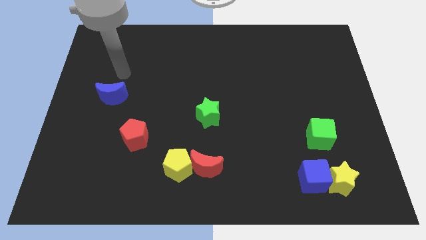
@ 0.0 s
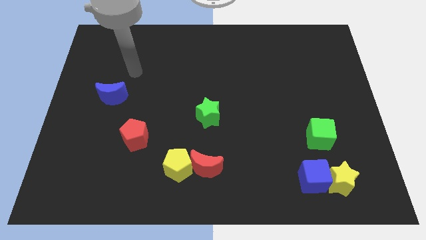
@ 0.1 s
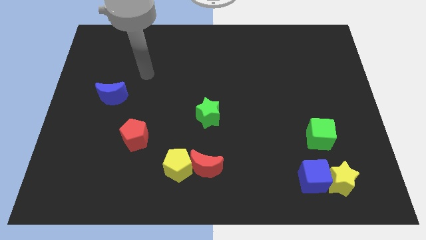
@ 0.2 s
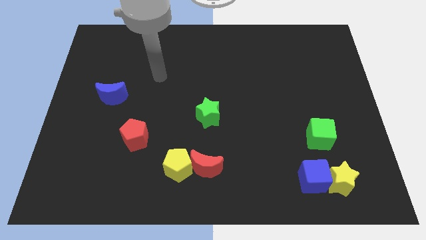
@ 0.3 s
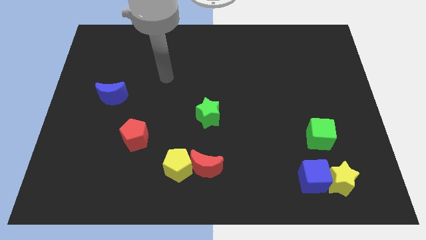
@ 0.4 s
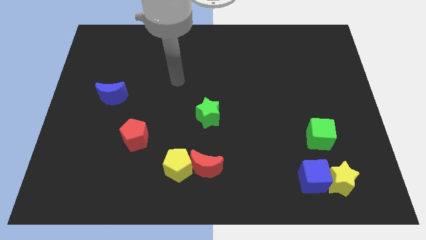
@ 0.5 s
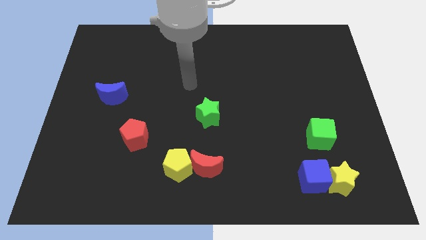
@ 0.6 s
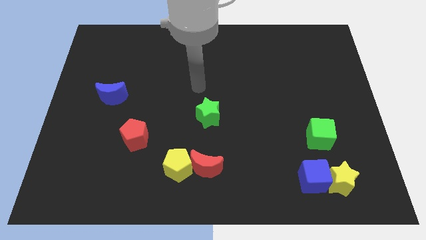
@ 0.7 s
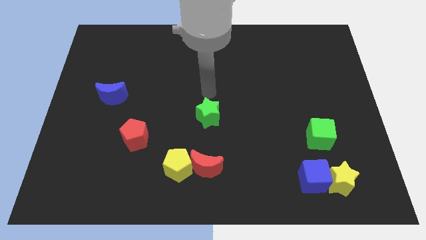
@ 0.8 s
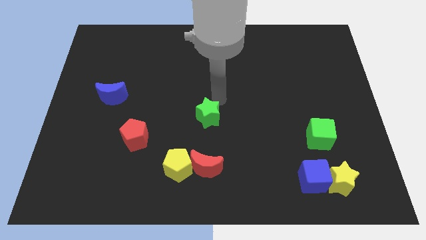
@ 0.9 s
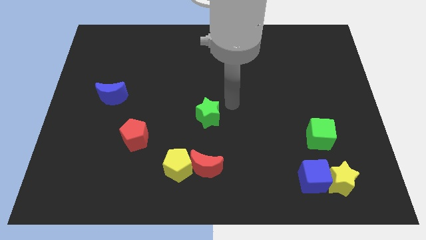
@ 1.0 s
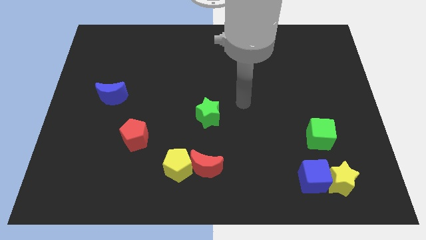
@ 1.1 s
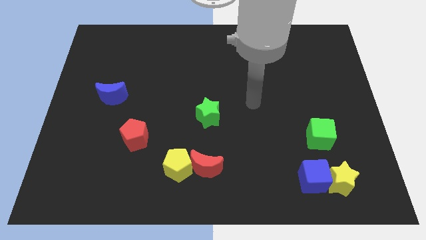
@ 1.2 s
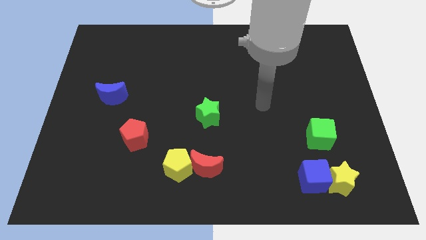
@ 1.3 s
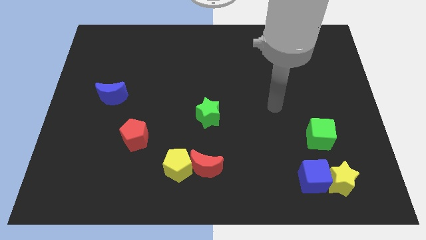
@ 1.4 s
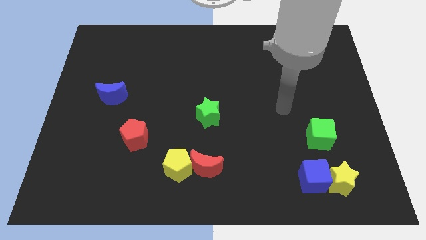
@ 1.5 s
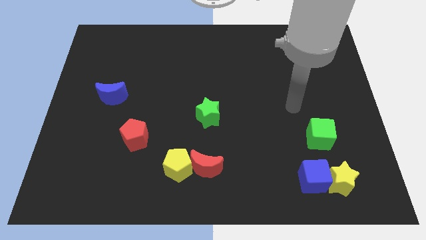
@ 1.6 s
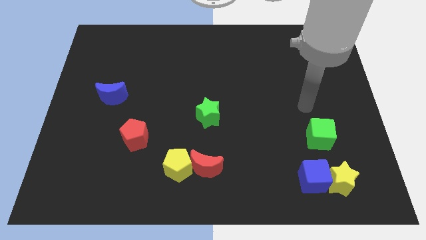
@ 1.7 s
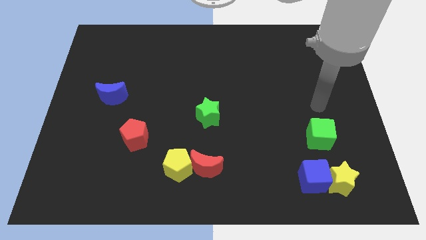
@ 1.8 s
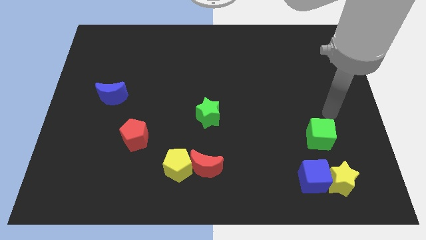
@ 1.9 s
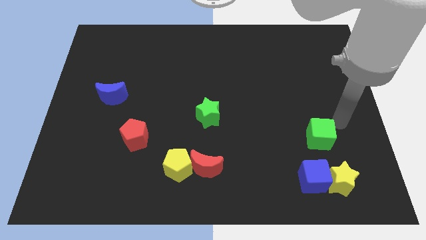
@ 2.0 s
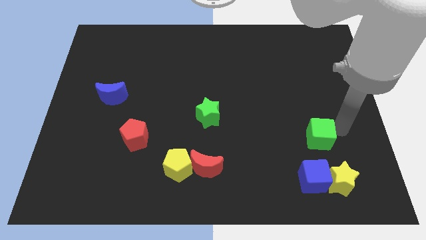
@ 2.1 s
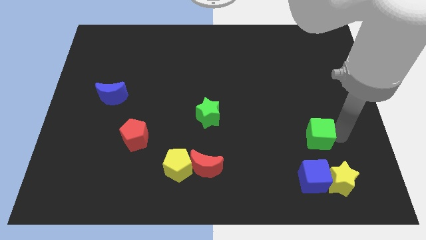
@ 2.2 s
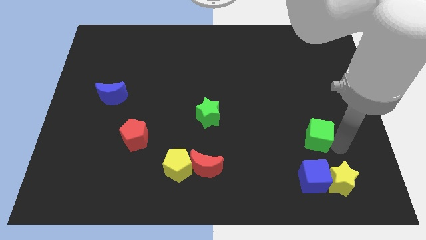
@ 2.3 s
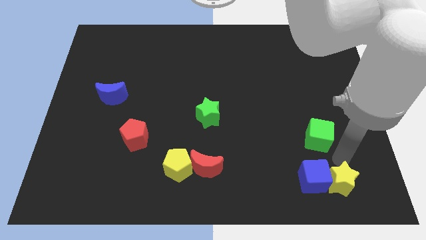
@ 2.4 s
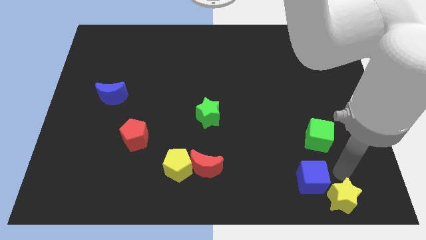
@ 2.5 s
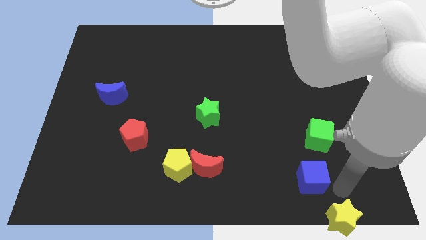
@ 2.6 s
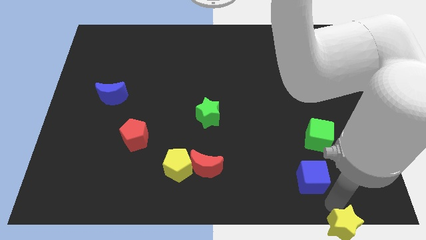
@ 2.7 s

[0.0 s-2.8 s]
separate the blue cube from the yellow star

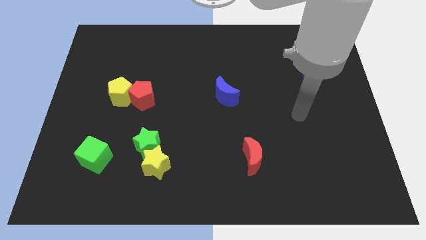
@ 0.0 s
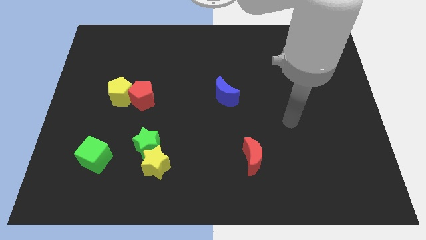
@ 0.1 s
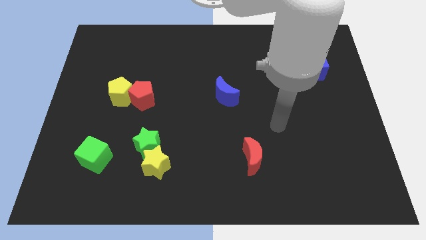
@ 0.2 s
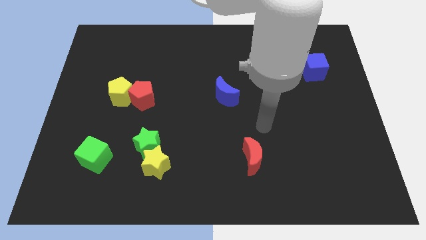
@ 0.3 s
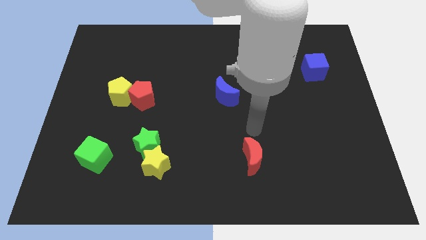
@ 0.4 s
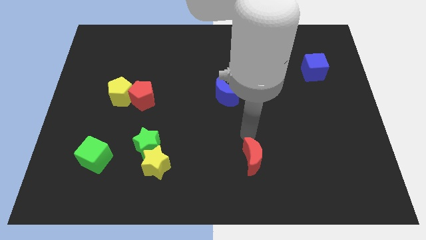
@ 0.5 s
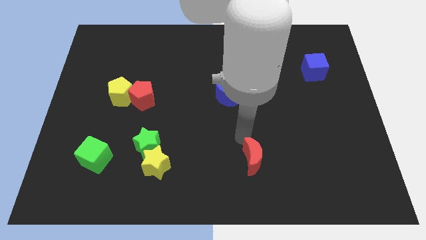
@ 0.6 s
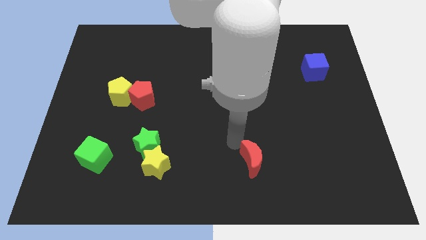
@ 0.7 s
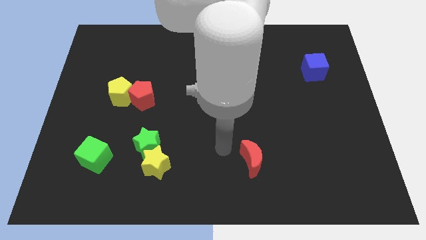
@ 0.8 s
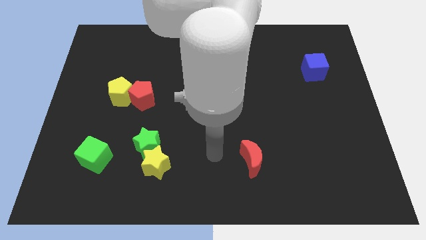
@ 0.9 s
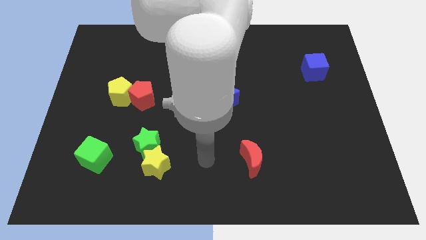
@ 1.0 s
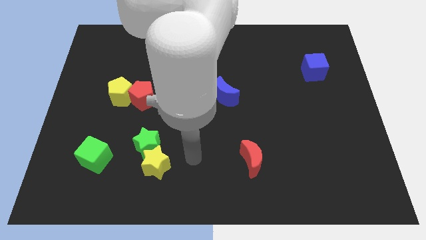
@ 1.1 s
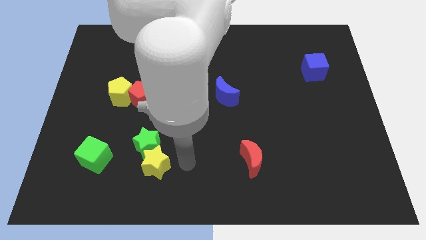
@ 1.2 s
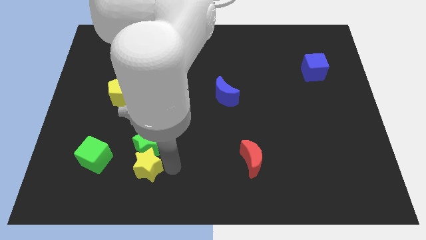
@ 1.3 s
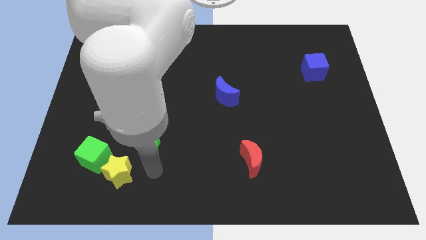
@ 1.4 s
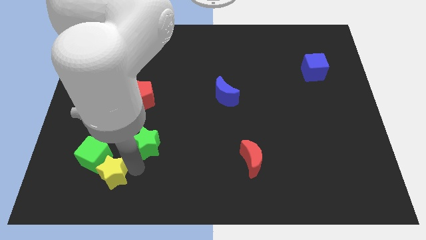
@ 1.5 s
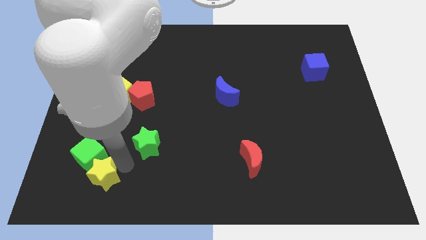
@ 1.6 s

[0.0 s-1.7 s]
move the green star away from the yellow star

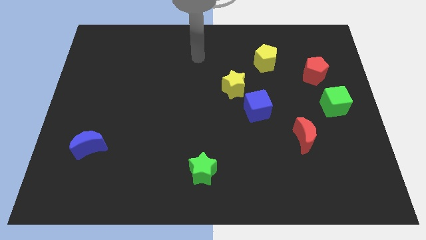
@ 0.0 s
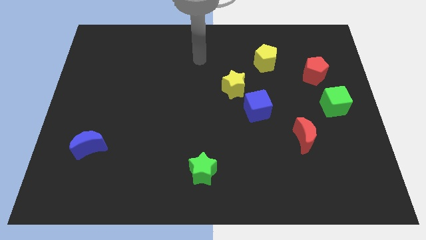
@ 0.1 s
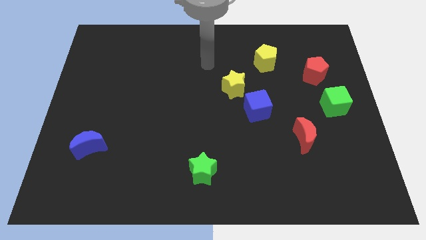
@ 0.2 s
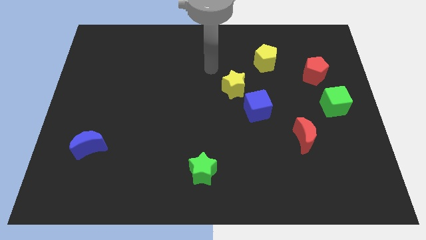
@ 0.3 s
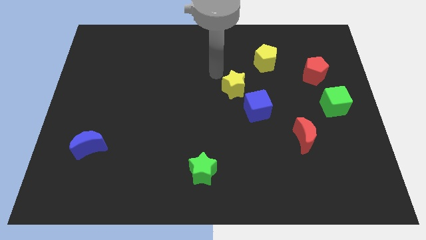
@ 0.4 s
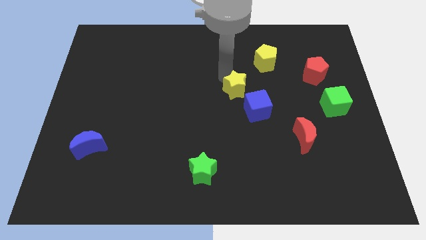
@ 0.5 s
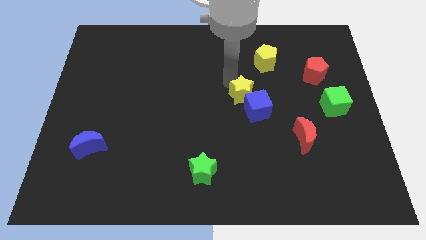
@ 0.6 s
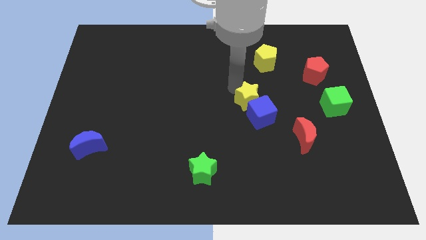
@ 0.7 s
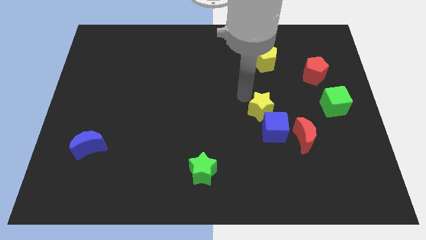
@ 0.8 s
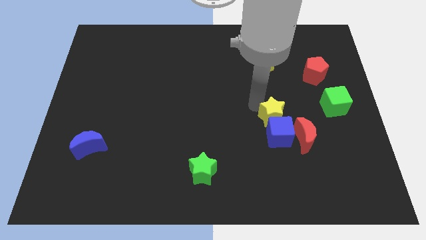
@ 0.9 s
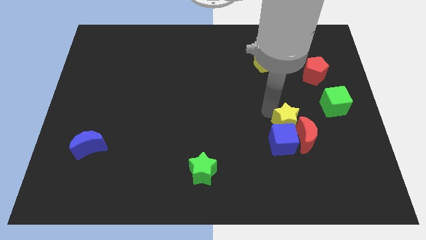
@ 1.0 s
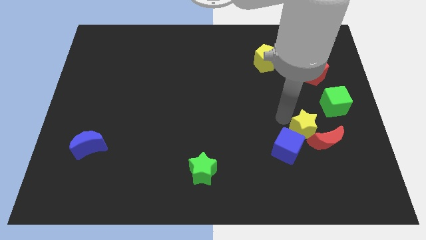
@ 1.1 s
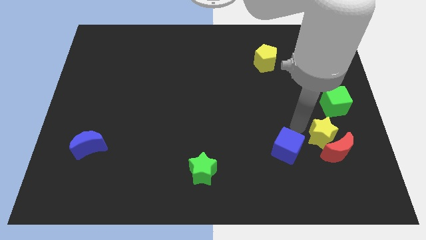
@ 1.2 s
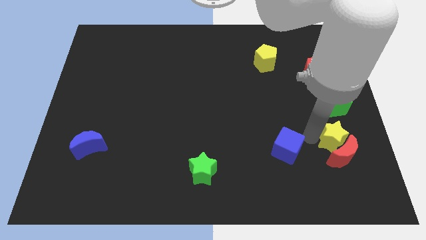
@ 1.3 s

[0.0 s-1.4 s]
move the blue cube away from the yellow star

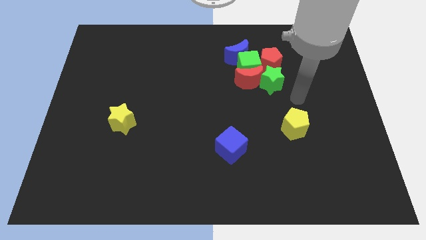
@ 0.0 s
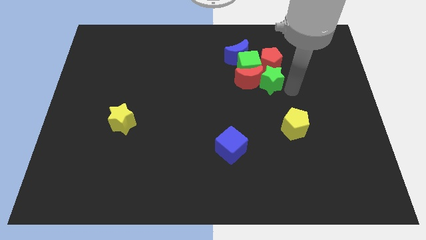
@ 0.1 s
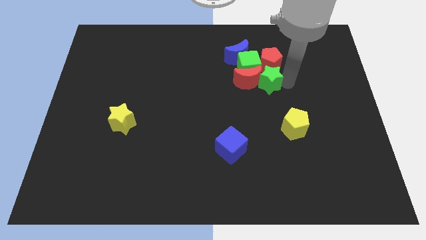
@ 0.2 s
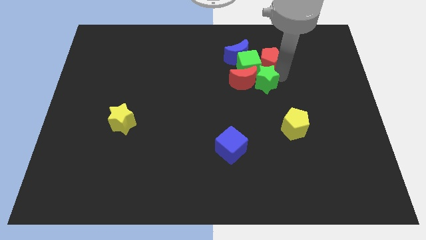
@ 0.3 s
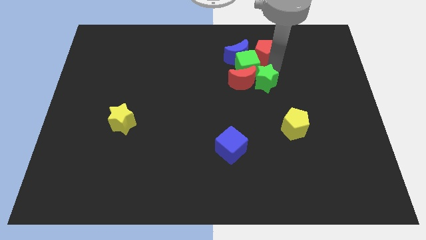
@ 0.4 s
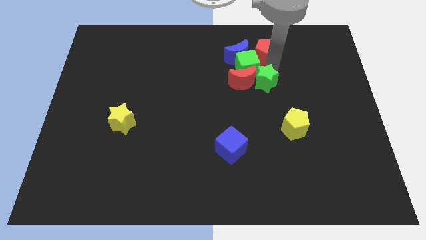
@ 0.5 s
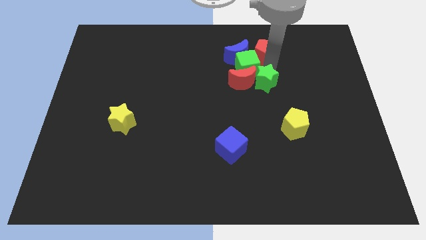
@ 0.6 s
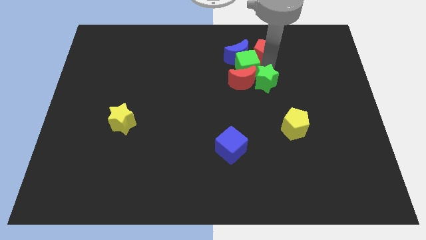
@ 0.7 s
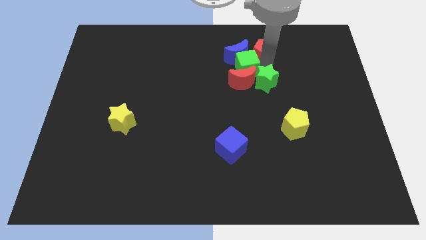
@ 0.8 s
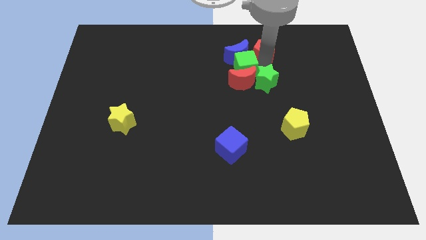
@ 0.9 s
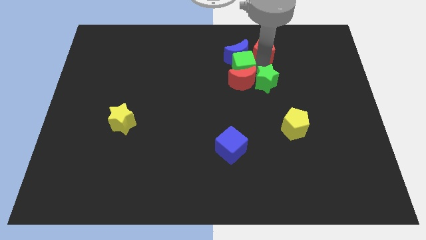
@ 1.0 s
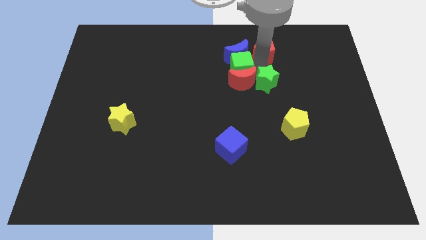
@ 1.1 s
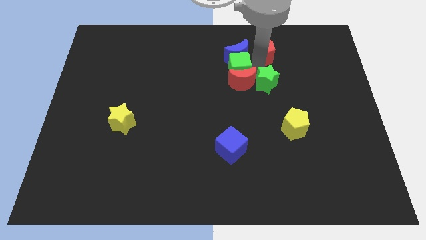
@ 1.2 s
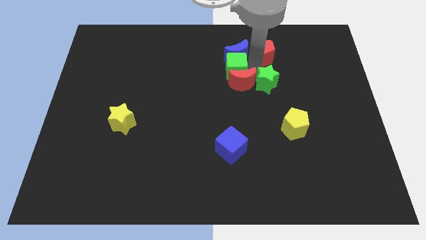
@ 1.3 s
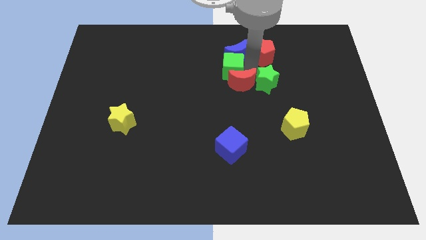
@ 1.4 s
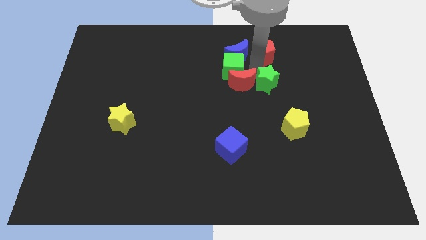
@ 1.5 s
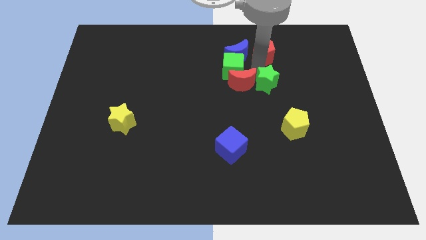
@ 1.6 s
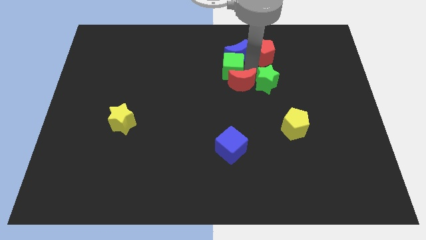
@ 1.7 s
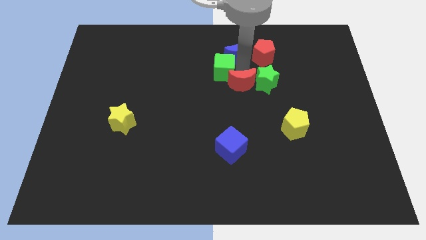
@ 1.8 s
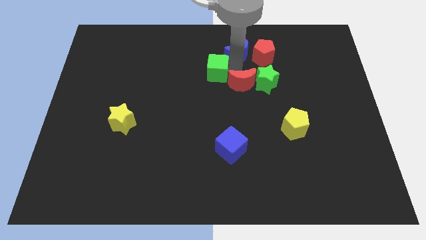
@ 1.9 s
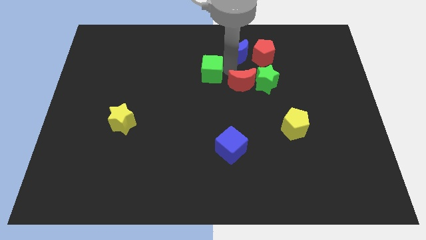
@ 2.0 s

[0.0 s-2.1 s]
separate the green cube from the group

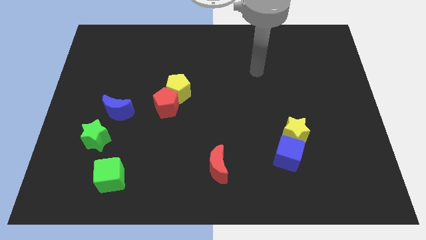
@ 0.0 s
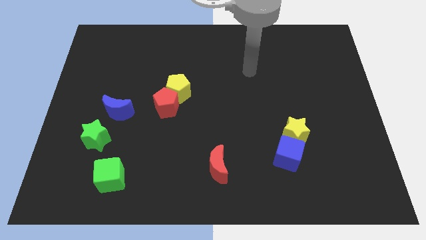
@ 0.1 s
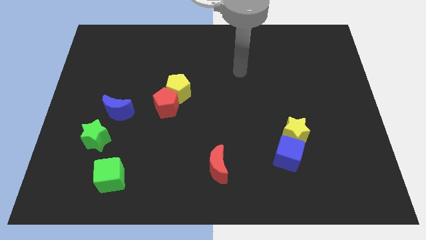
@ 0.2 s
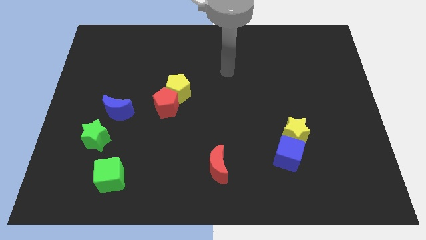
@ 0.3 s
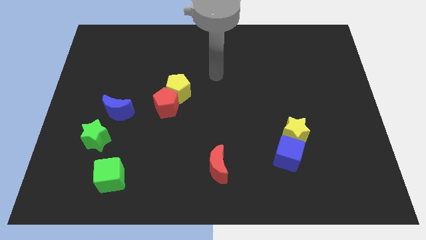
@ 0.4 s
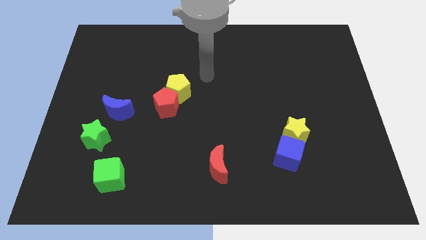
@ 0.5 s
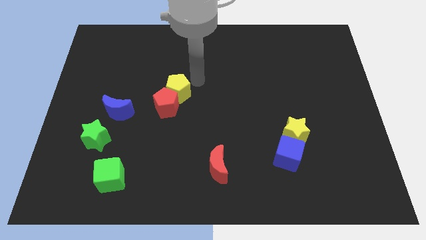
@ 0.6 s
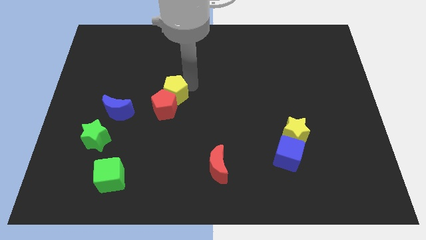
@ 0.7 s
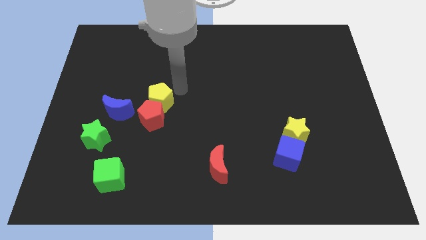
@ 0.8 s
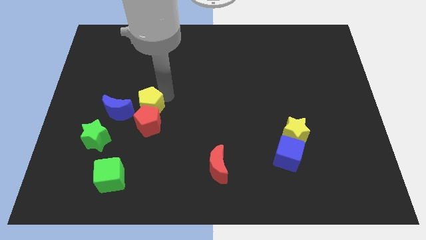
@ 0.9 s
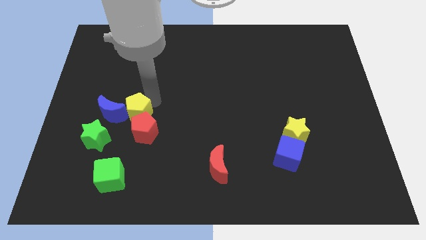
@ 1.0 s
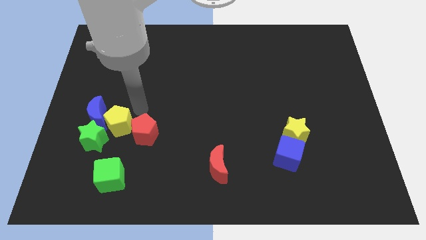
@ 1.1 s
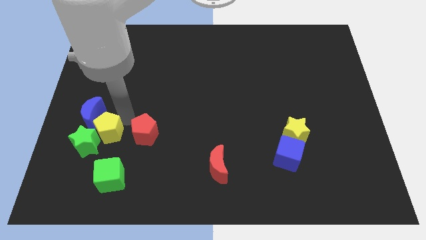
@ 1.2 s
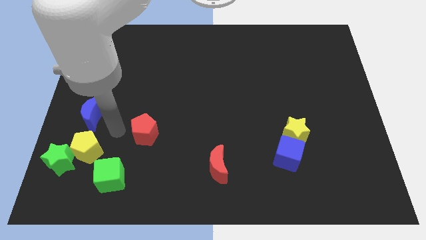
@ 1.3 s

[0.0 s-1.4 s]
pull the red pentagon apart from the yellow pentagon
